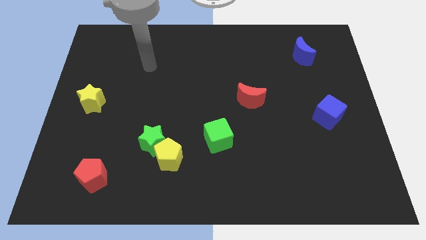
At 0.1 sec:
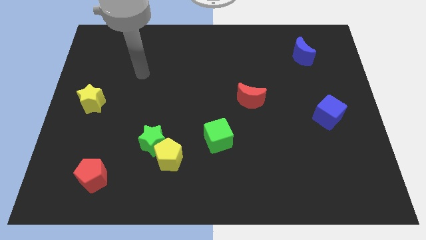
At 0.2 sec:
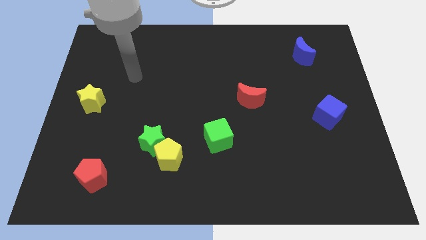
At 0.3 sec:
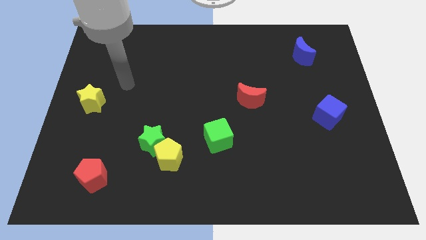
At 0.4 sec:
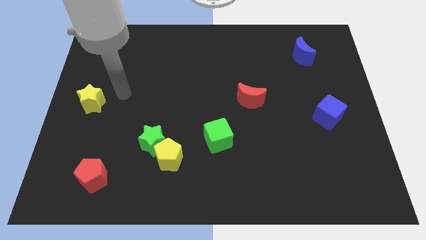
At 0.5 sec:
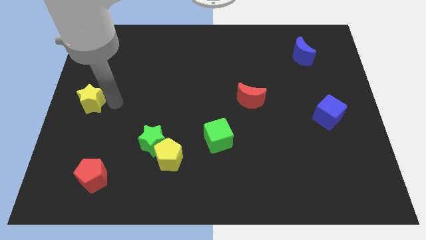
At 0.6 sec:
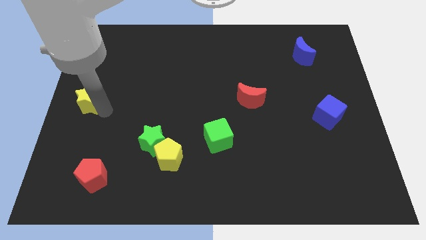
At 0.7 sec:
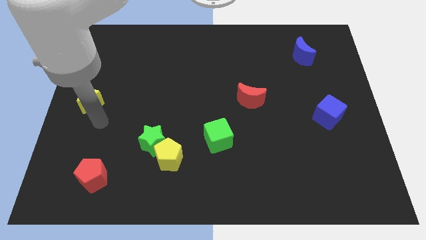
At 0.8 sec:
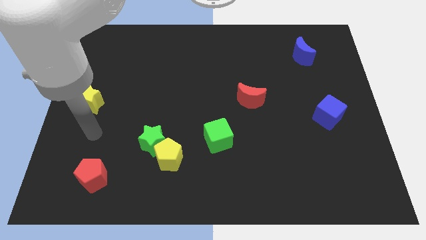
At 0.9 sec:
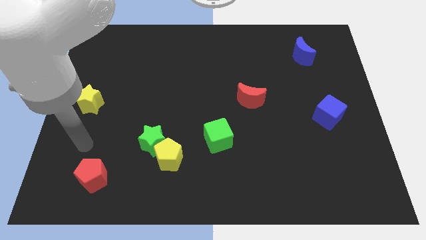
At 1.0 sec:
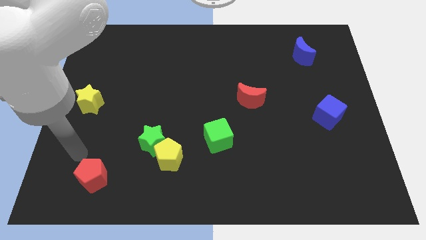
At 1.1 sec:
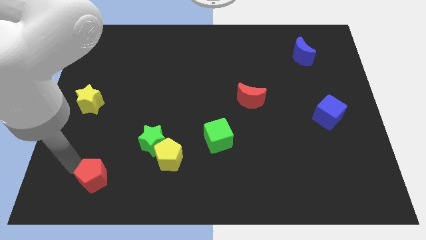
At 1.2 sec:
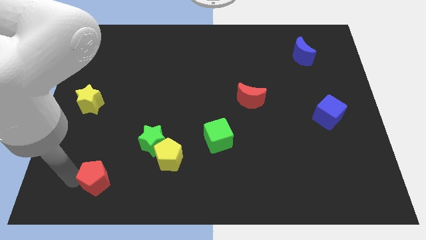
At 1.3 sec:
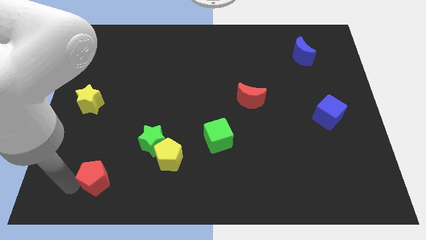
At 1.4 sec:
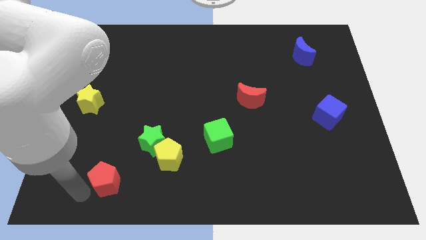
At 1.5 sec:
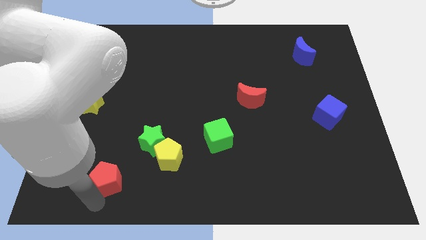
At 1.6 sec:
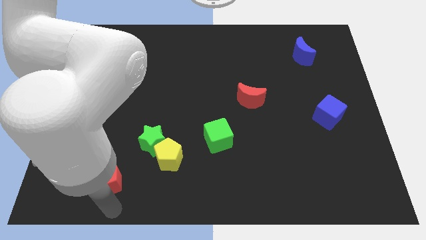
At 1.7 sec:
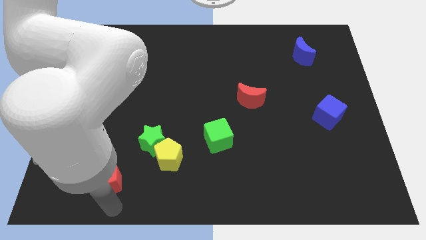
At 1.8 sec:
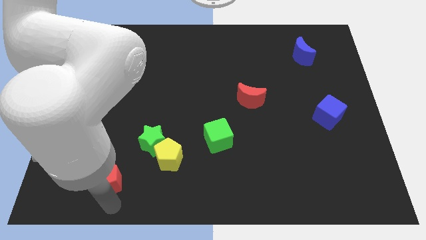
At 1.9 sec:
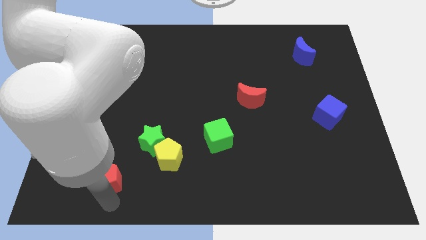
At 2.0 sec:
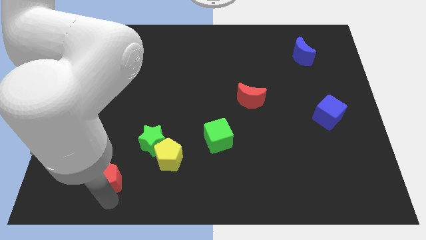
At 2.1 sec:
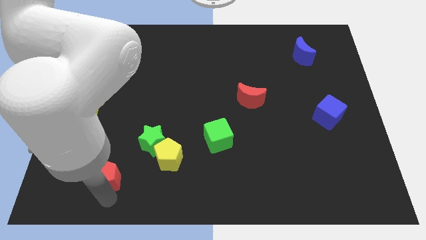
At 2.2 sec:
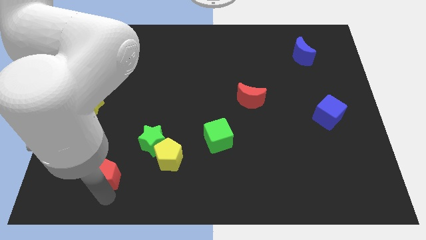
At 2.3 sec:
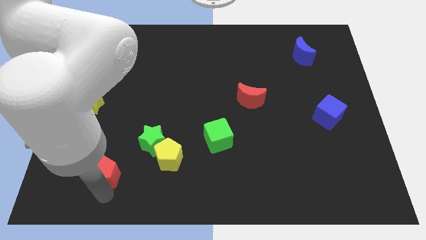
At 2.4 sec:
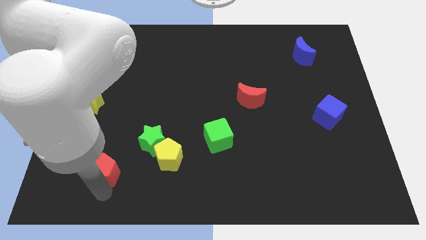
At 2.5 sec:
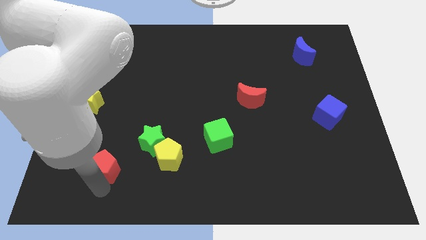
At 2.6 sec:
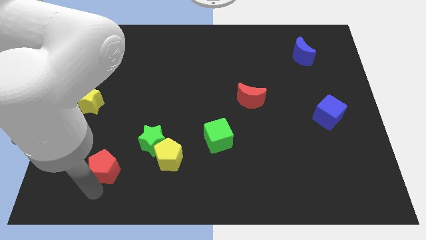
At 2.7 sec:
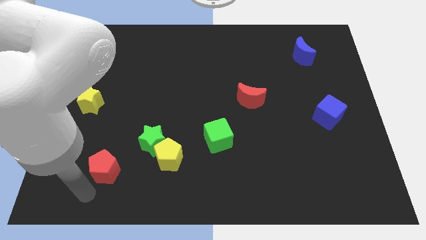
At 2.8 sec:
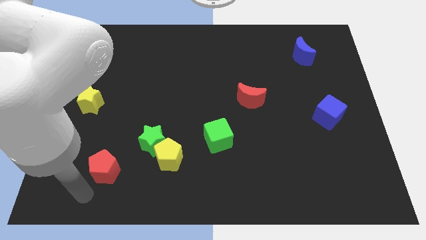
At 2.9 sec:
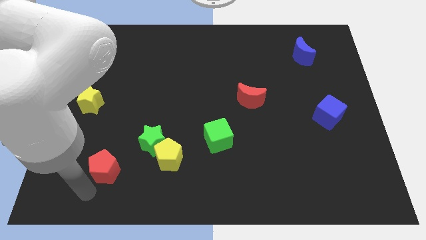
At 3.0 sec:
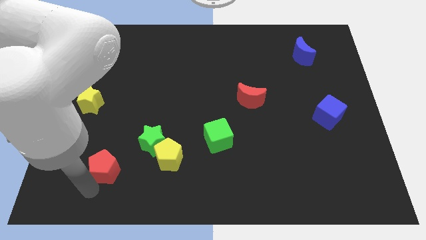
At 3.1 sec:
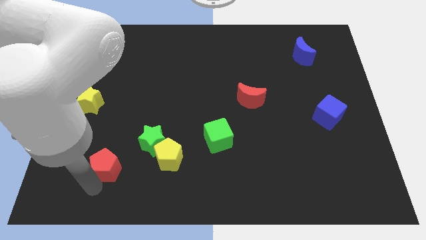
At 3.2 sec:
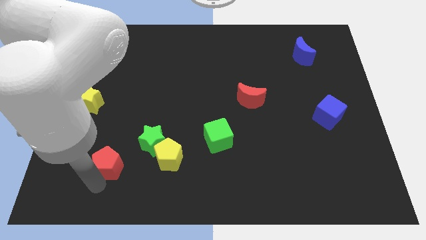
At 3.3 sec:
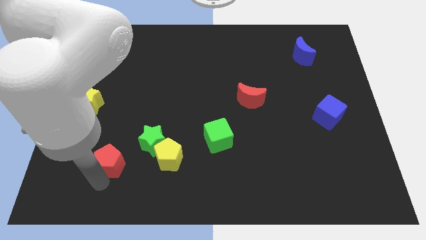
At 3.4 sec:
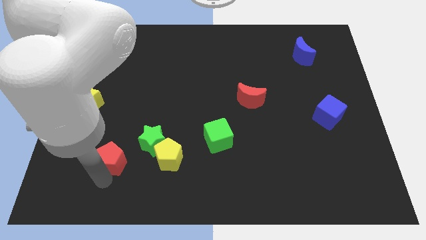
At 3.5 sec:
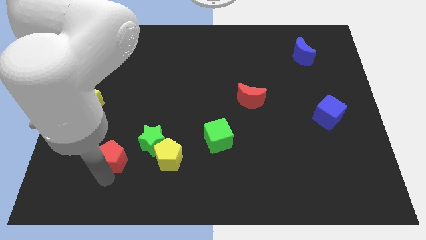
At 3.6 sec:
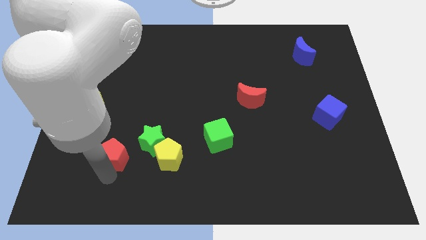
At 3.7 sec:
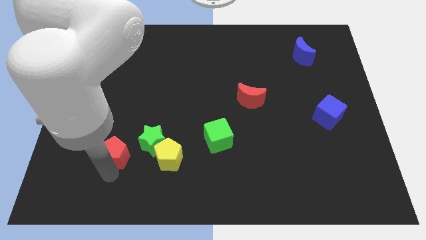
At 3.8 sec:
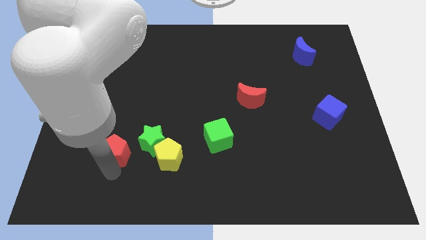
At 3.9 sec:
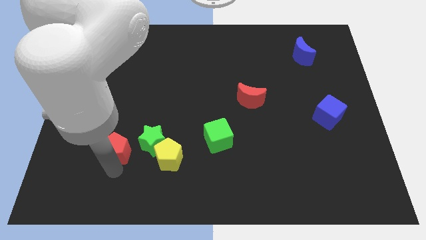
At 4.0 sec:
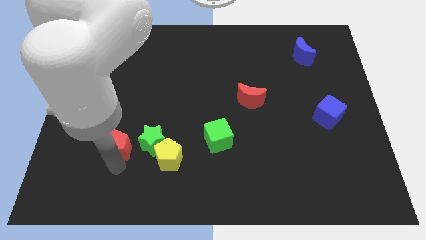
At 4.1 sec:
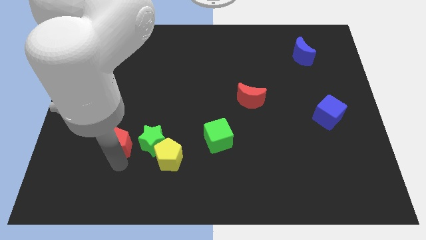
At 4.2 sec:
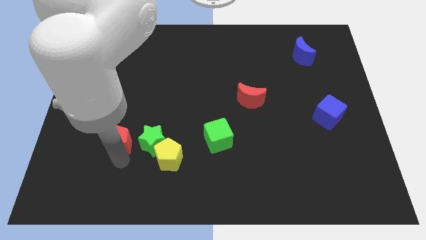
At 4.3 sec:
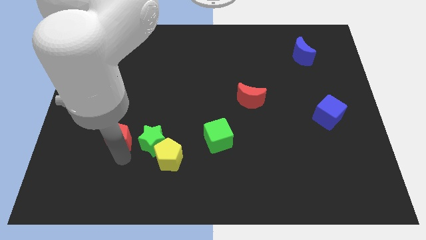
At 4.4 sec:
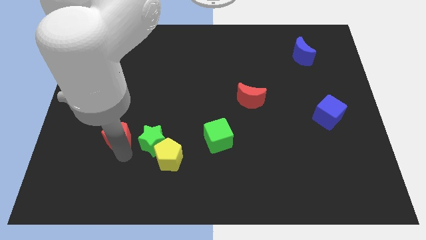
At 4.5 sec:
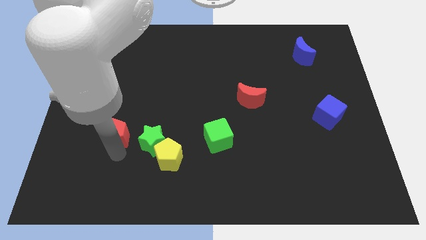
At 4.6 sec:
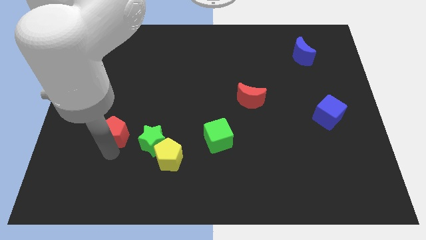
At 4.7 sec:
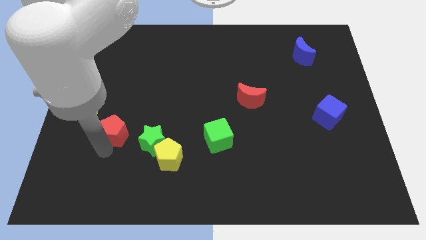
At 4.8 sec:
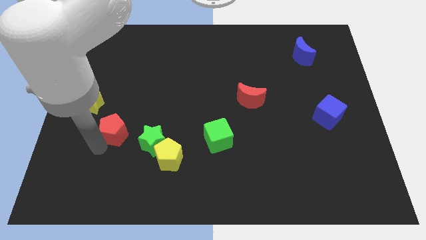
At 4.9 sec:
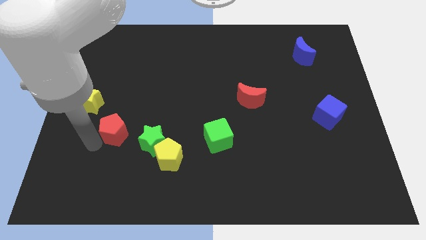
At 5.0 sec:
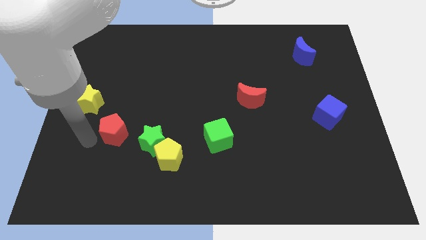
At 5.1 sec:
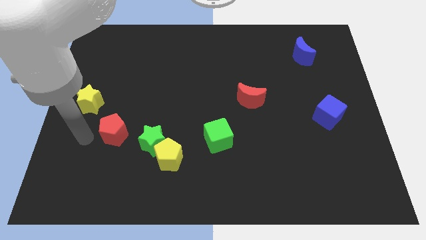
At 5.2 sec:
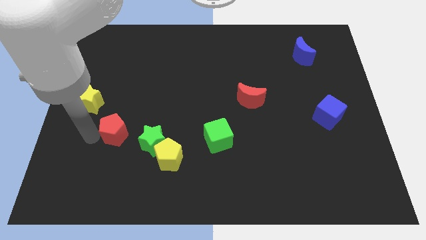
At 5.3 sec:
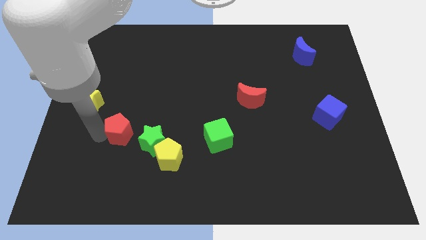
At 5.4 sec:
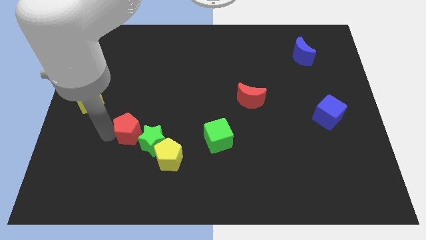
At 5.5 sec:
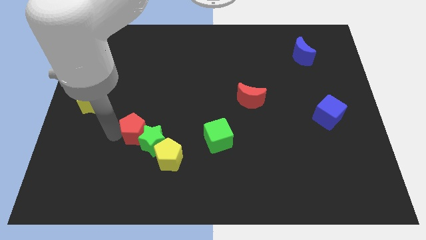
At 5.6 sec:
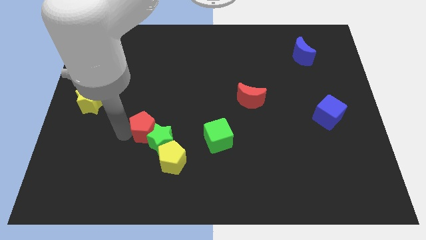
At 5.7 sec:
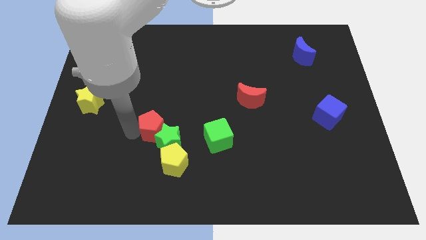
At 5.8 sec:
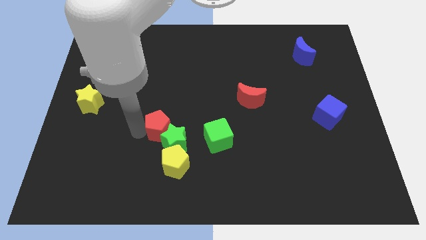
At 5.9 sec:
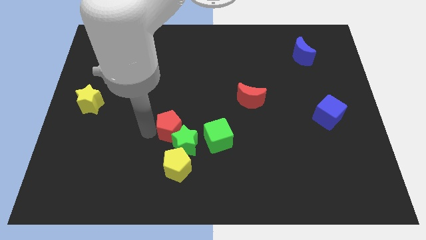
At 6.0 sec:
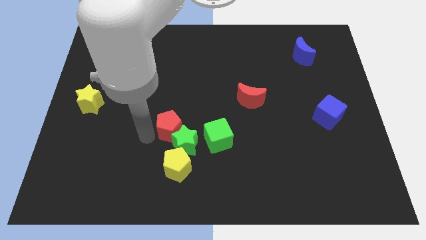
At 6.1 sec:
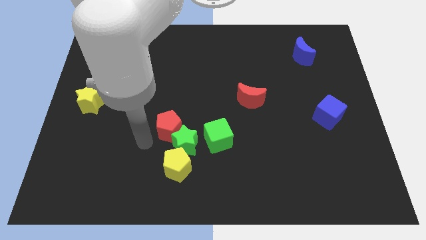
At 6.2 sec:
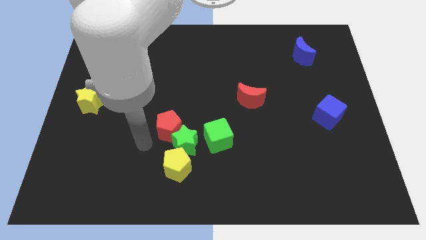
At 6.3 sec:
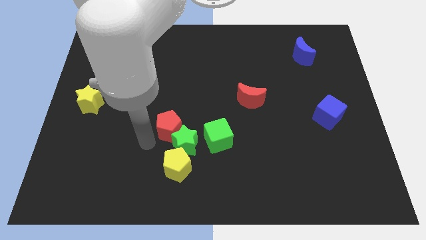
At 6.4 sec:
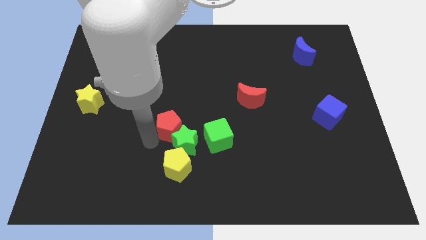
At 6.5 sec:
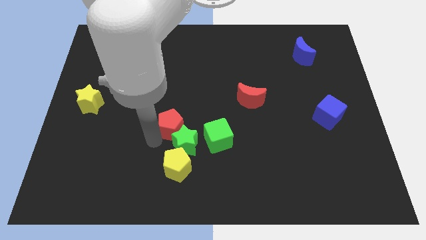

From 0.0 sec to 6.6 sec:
put the red pentagon to the middle of the board
